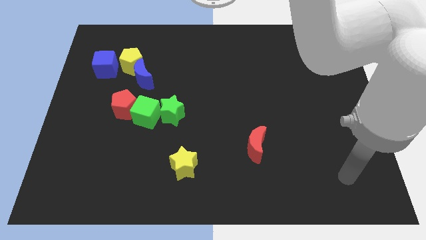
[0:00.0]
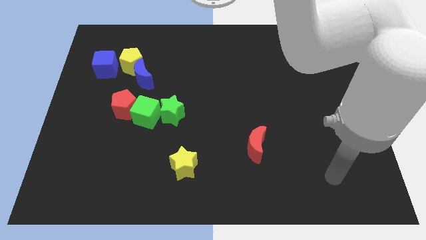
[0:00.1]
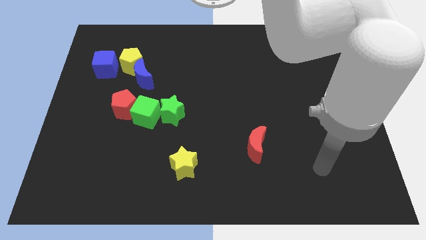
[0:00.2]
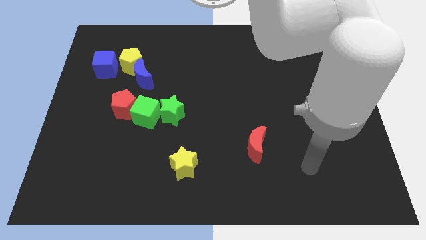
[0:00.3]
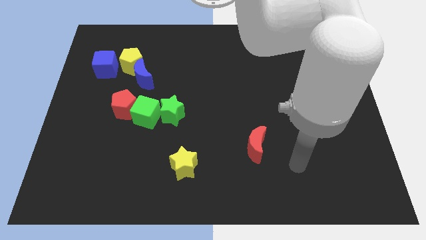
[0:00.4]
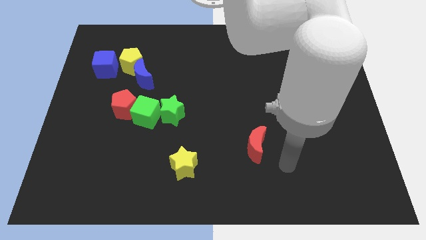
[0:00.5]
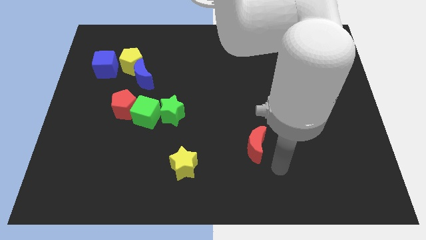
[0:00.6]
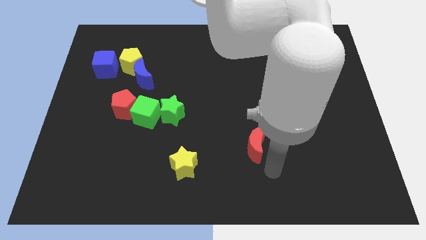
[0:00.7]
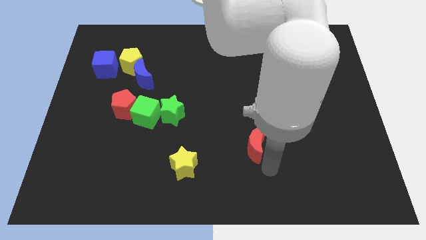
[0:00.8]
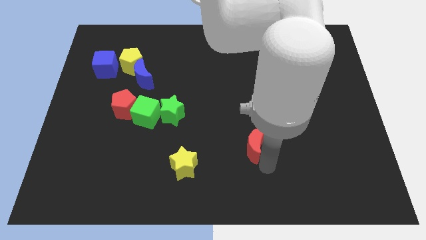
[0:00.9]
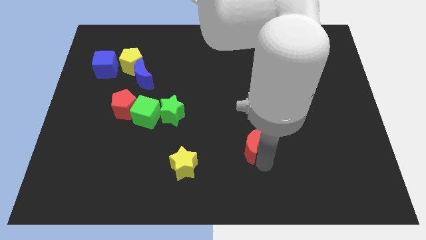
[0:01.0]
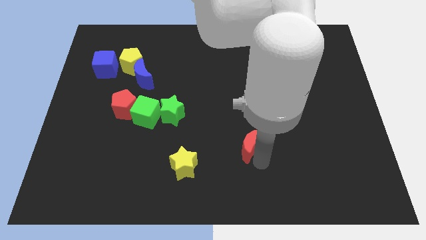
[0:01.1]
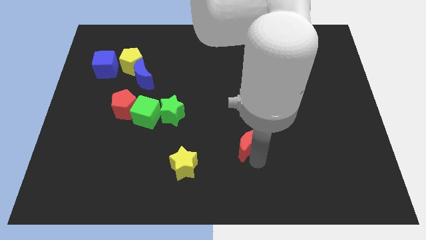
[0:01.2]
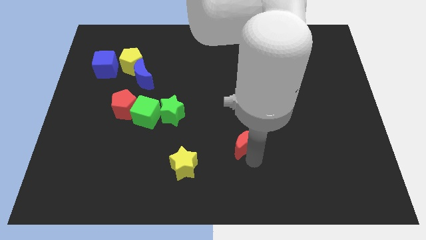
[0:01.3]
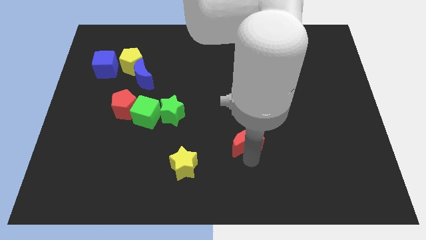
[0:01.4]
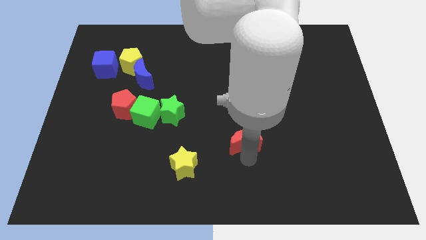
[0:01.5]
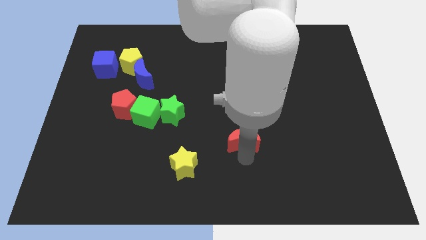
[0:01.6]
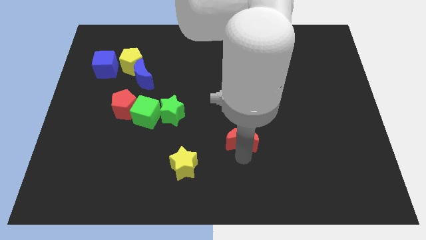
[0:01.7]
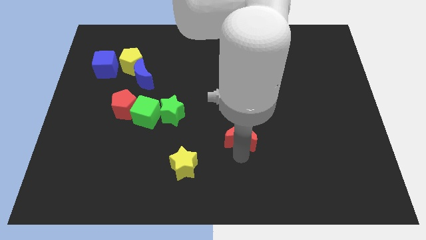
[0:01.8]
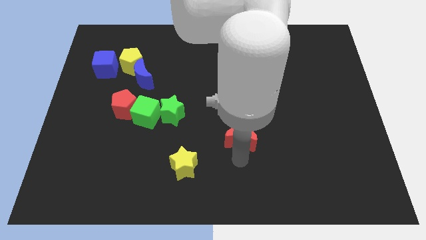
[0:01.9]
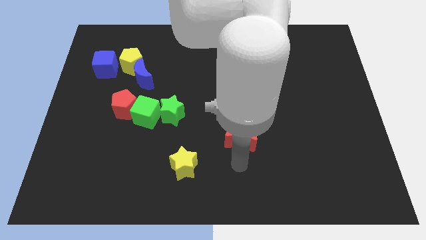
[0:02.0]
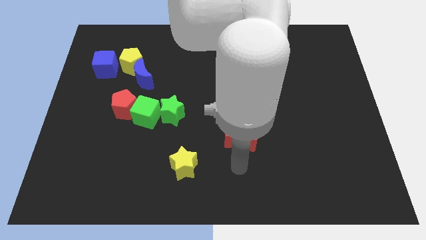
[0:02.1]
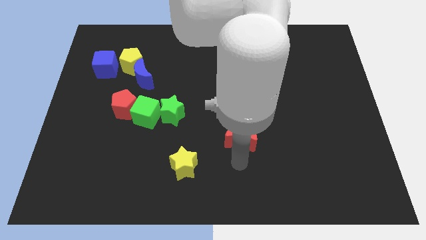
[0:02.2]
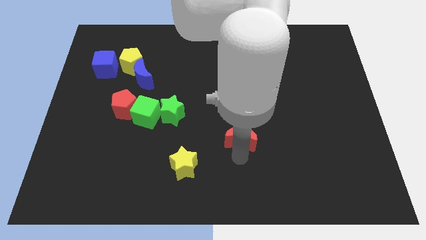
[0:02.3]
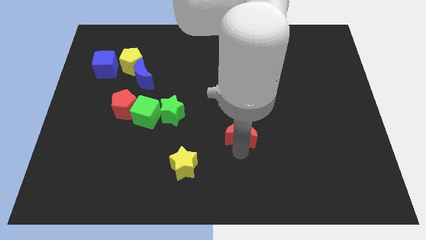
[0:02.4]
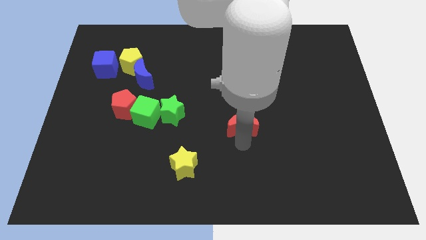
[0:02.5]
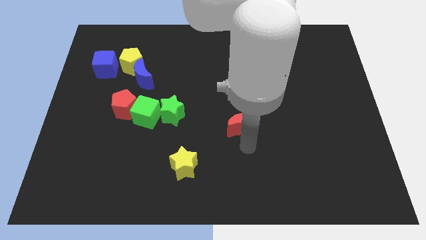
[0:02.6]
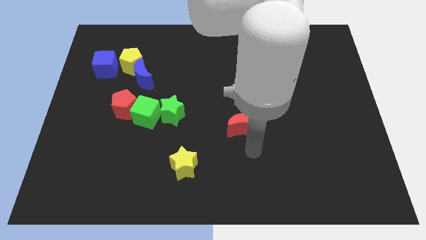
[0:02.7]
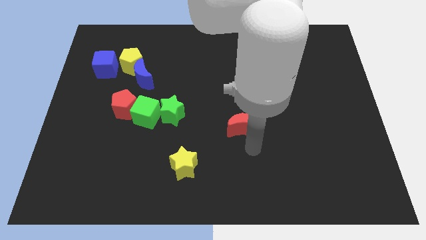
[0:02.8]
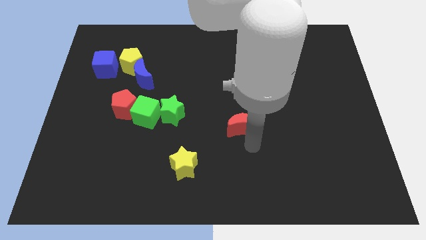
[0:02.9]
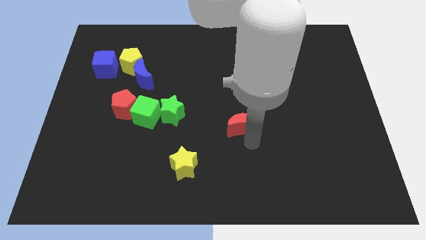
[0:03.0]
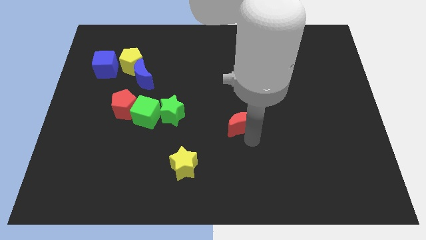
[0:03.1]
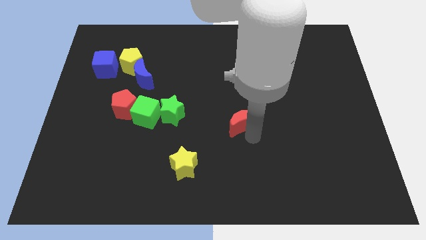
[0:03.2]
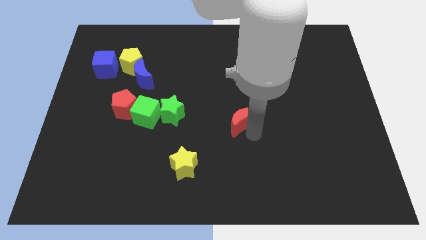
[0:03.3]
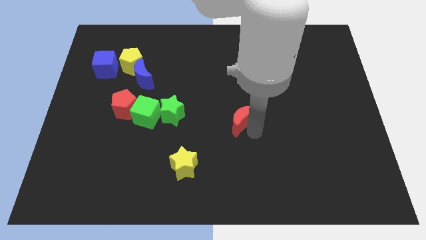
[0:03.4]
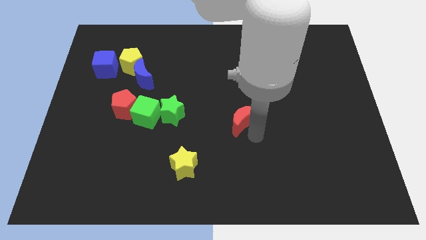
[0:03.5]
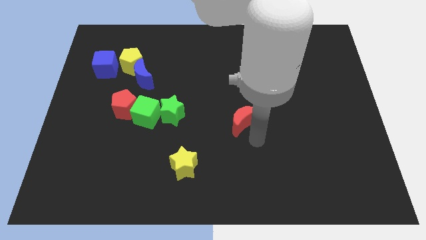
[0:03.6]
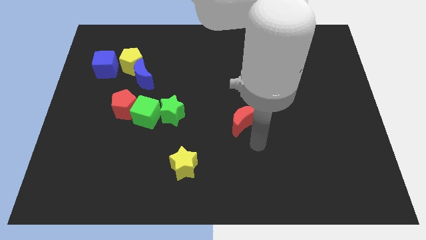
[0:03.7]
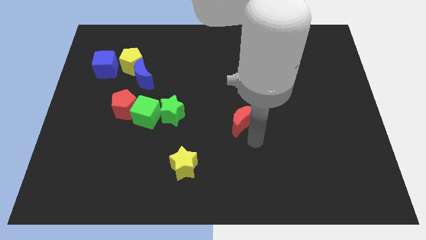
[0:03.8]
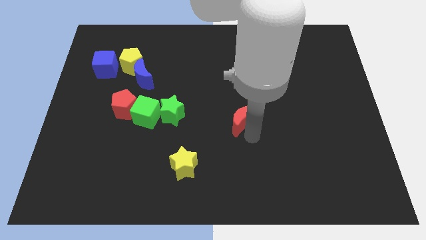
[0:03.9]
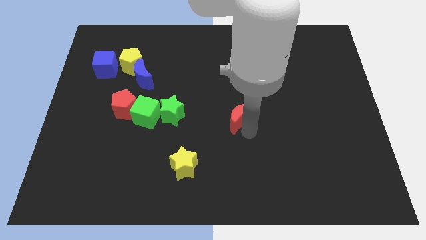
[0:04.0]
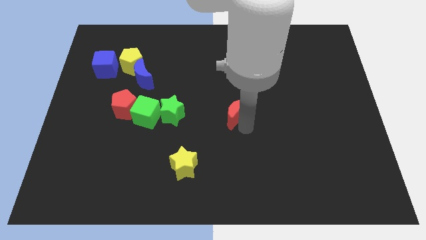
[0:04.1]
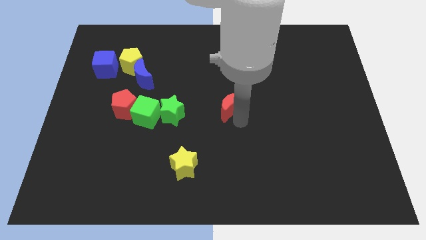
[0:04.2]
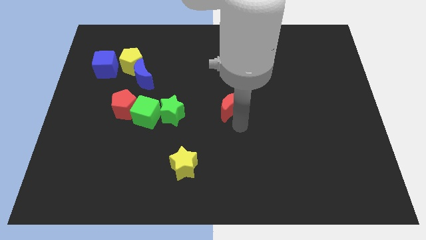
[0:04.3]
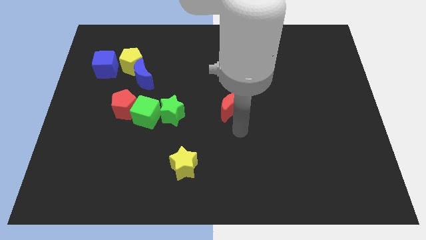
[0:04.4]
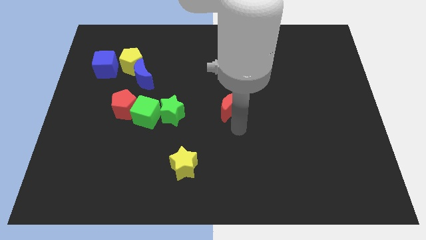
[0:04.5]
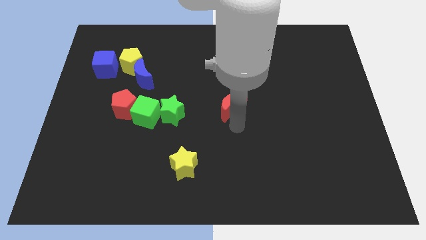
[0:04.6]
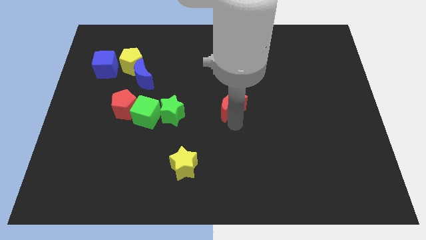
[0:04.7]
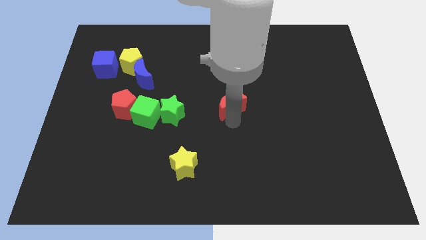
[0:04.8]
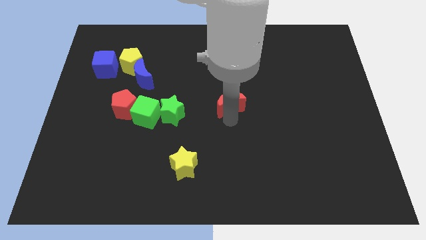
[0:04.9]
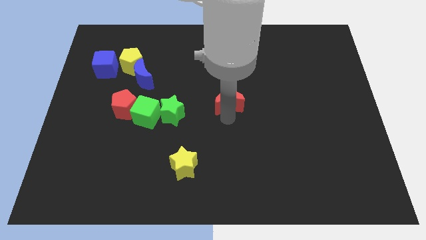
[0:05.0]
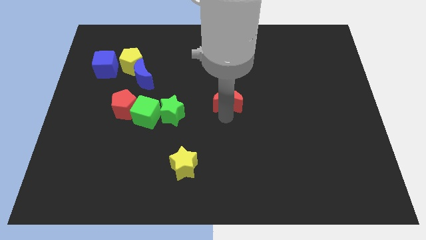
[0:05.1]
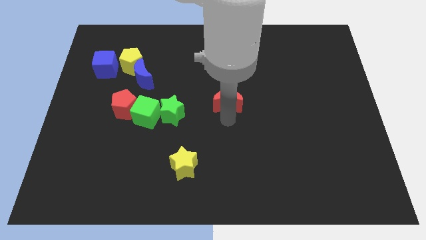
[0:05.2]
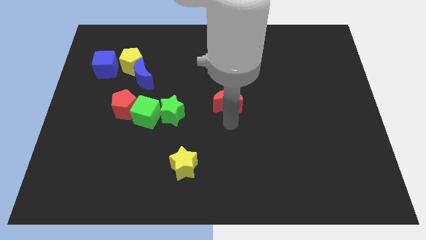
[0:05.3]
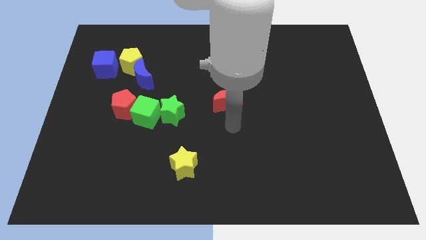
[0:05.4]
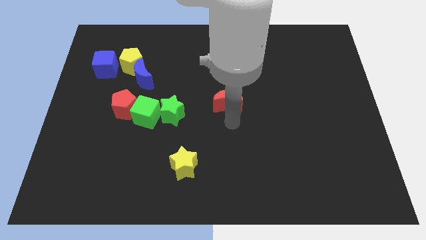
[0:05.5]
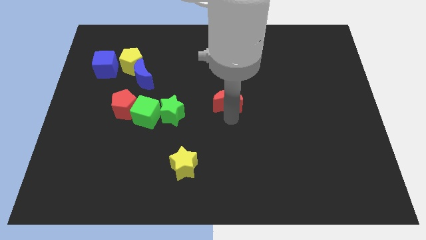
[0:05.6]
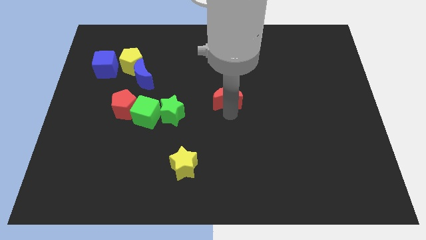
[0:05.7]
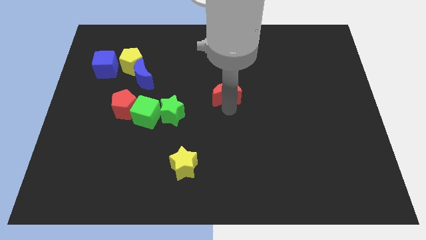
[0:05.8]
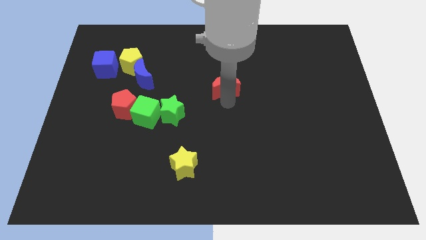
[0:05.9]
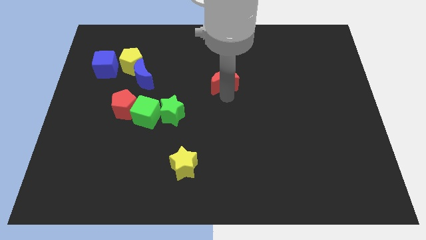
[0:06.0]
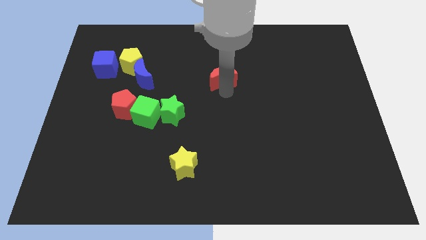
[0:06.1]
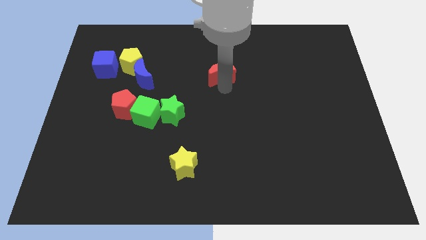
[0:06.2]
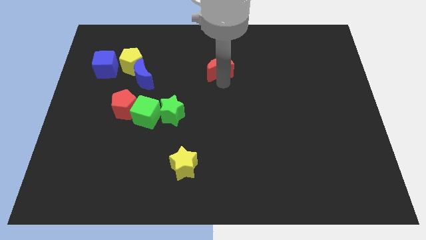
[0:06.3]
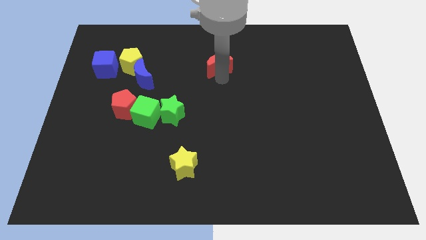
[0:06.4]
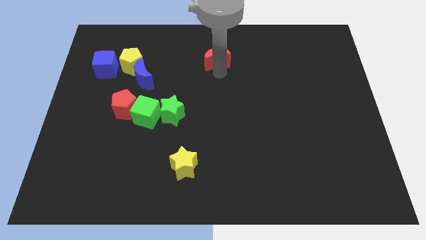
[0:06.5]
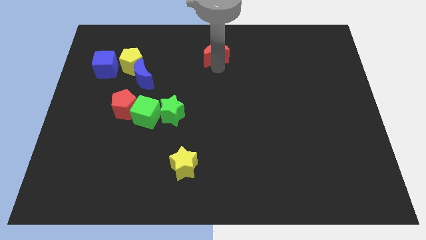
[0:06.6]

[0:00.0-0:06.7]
slide the red moon to the towards your base

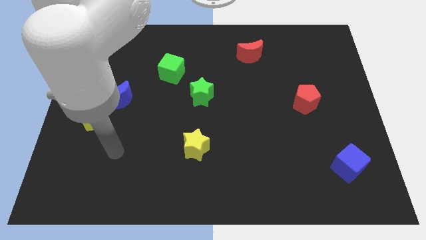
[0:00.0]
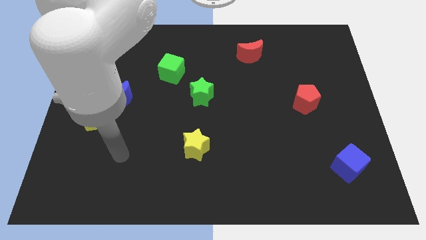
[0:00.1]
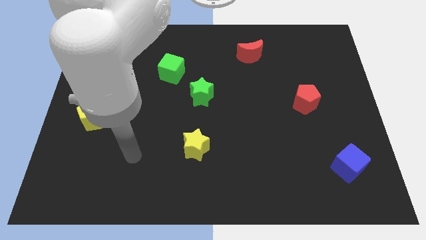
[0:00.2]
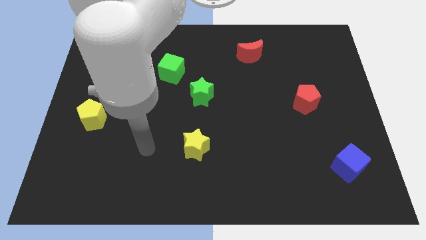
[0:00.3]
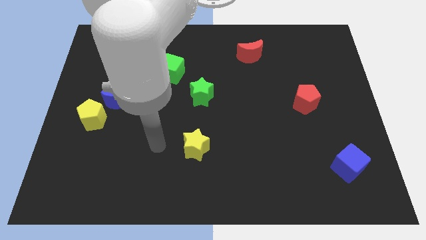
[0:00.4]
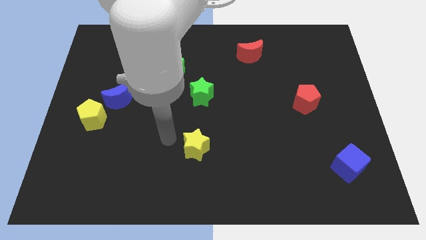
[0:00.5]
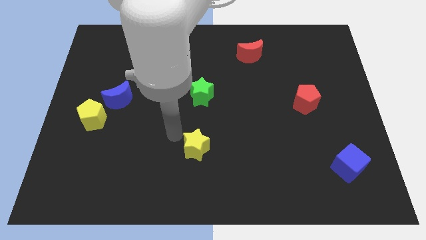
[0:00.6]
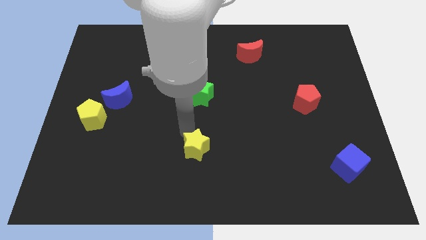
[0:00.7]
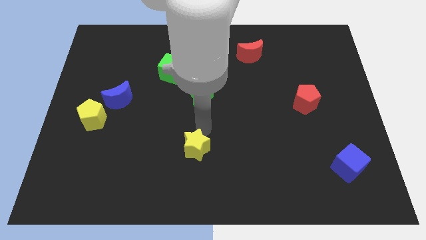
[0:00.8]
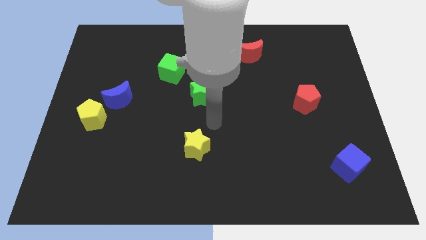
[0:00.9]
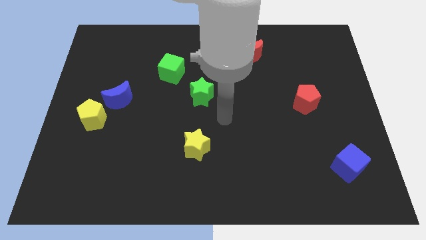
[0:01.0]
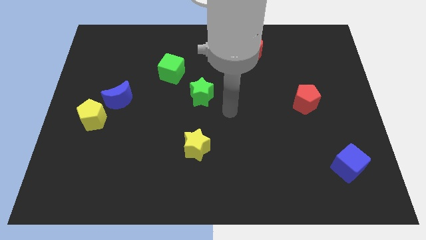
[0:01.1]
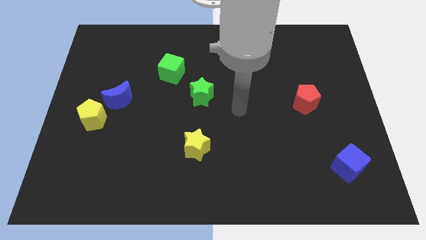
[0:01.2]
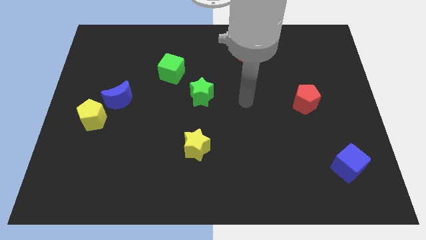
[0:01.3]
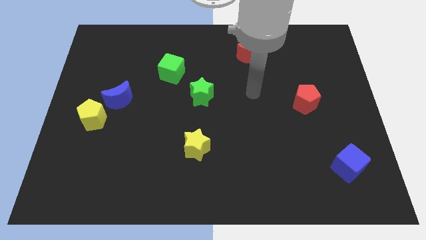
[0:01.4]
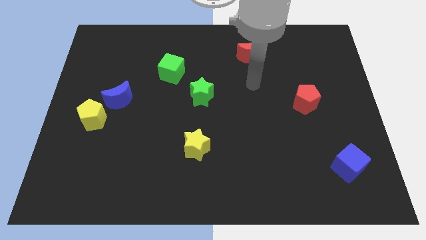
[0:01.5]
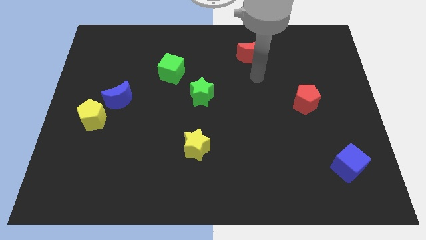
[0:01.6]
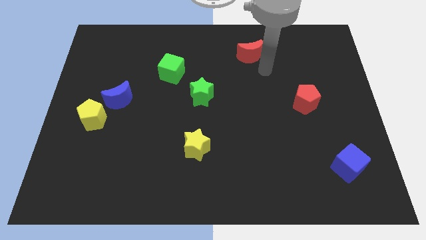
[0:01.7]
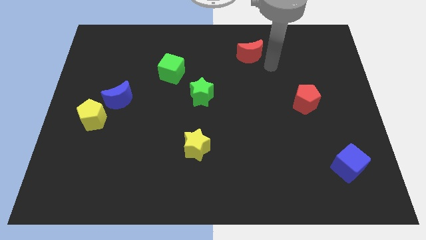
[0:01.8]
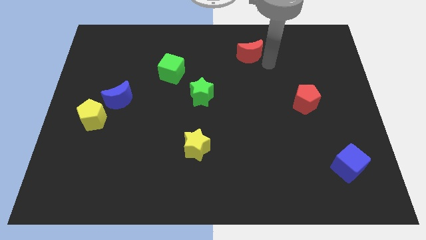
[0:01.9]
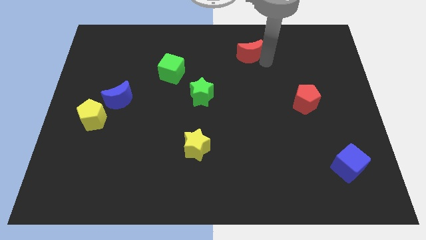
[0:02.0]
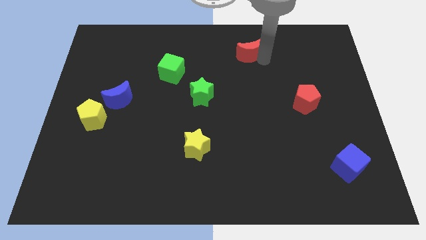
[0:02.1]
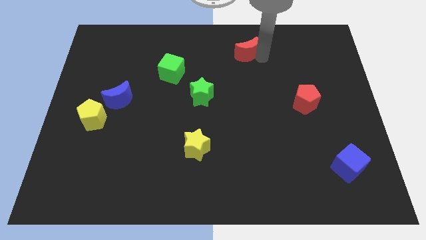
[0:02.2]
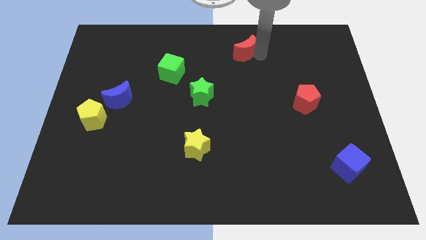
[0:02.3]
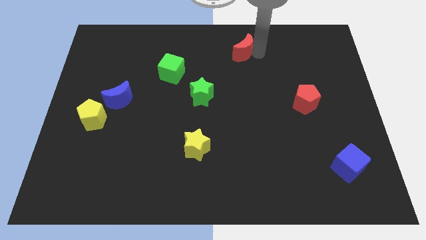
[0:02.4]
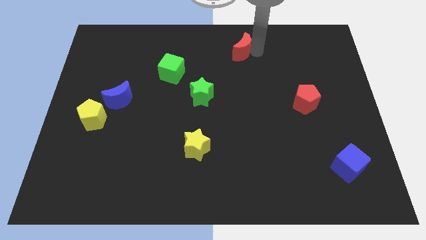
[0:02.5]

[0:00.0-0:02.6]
put the red moon to the top
